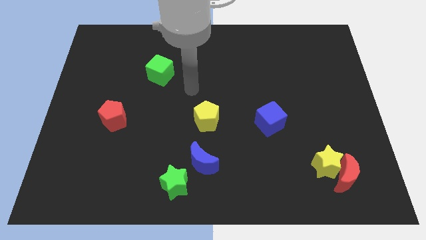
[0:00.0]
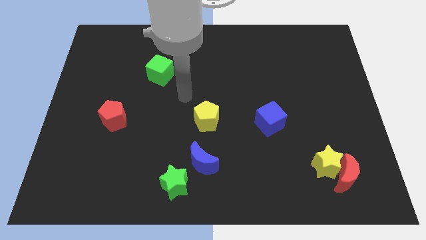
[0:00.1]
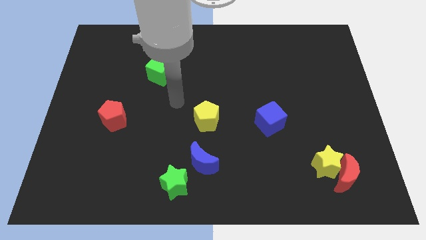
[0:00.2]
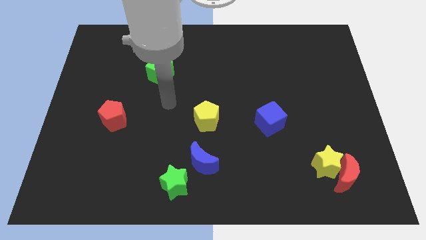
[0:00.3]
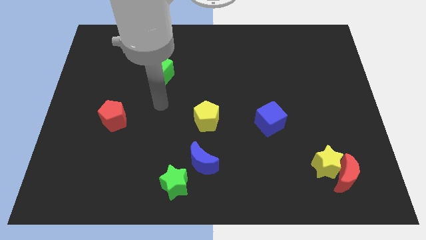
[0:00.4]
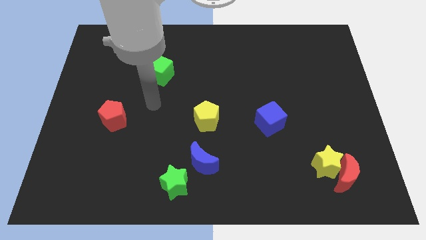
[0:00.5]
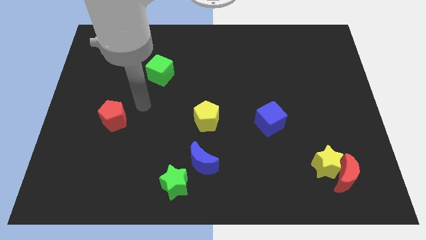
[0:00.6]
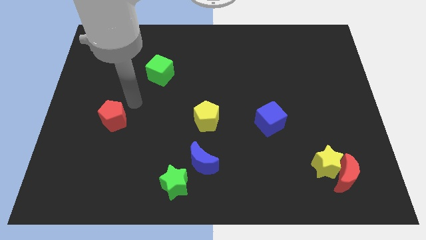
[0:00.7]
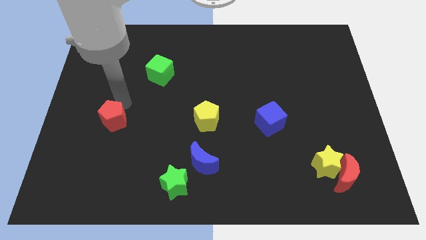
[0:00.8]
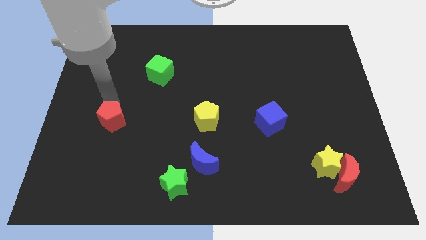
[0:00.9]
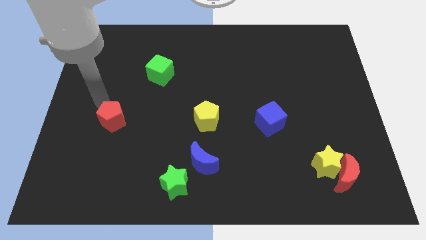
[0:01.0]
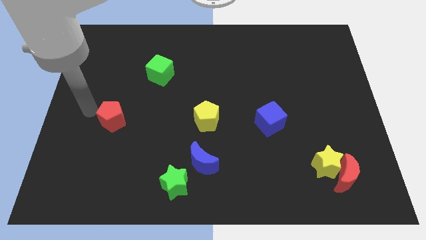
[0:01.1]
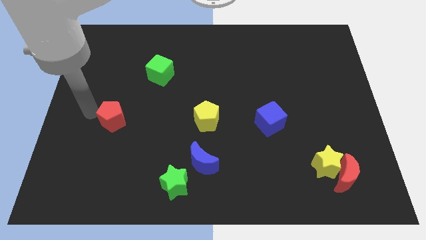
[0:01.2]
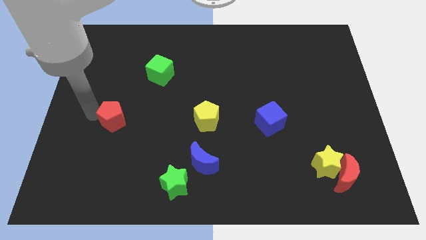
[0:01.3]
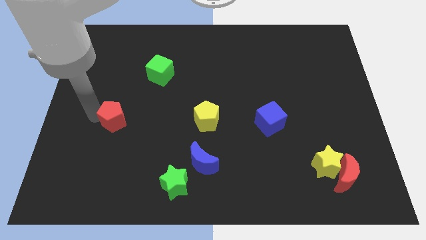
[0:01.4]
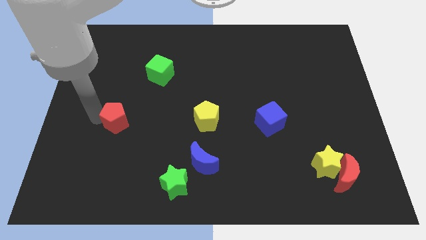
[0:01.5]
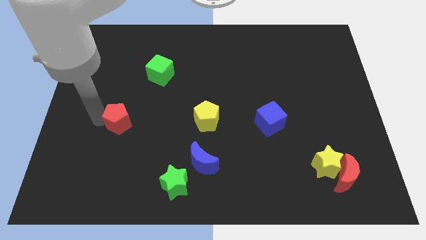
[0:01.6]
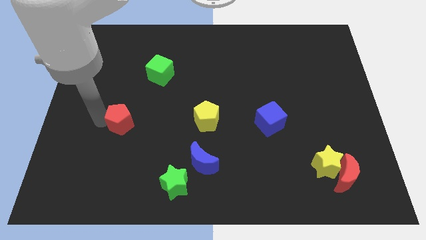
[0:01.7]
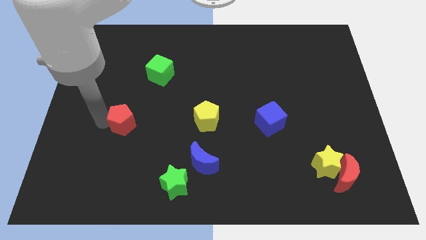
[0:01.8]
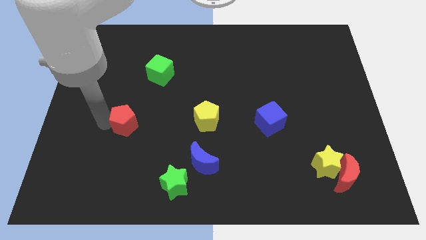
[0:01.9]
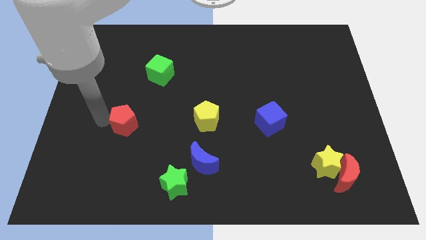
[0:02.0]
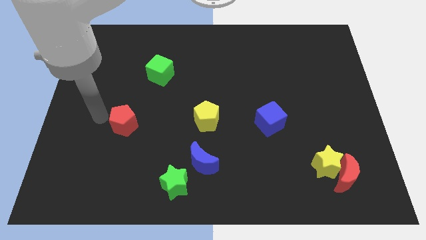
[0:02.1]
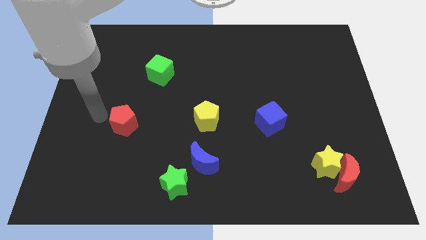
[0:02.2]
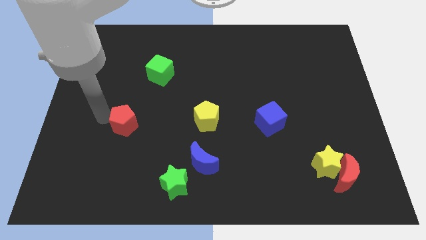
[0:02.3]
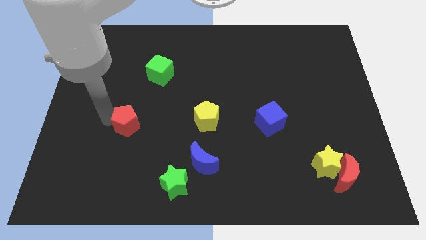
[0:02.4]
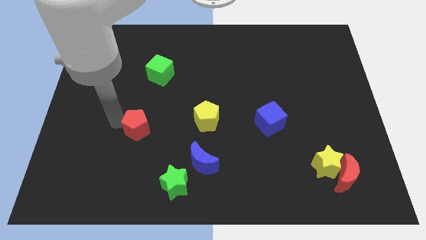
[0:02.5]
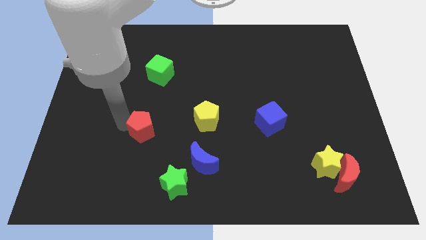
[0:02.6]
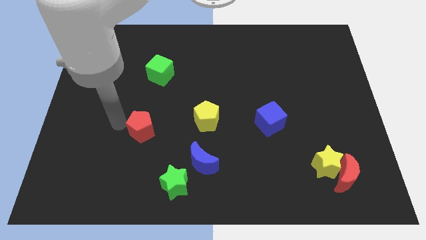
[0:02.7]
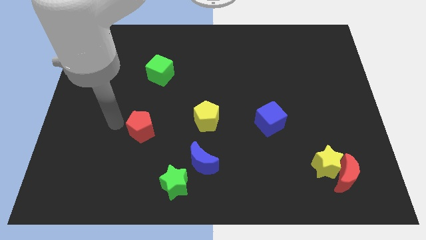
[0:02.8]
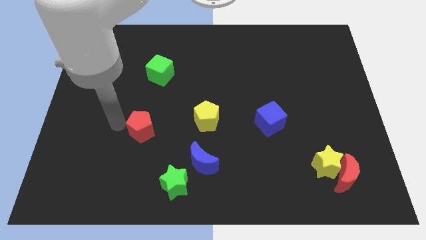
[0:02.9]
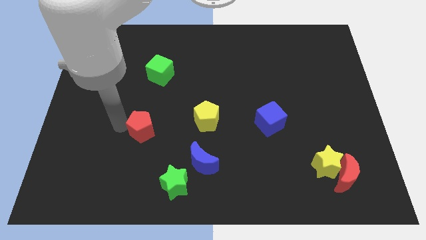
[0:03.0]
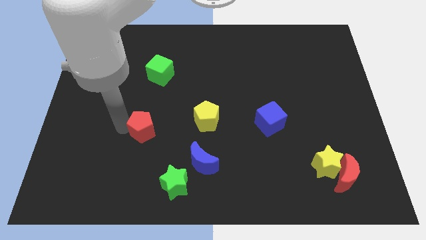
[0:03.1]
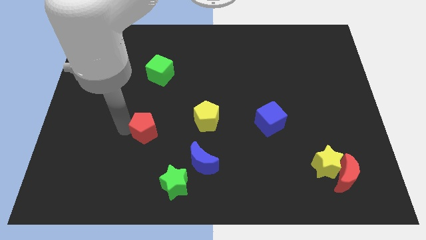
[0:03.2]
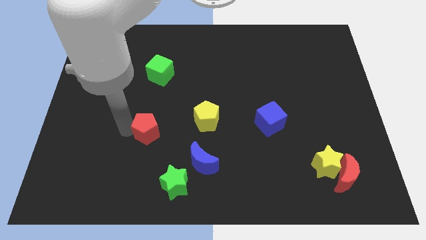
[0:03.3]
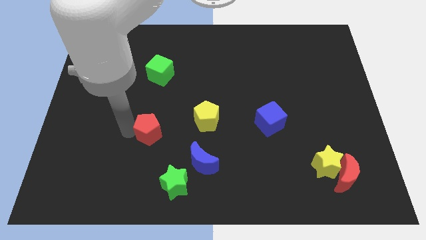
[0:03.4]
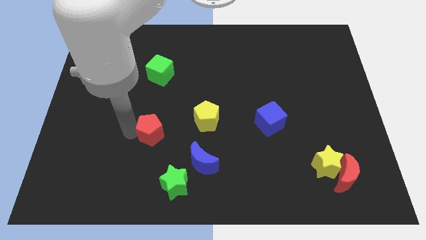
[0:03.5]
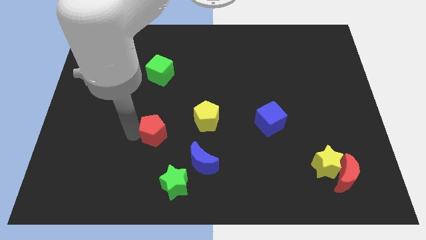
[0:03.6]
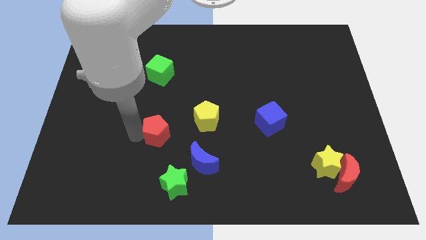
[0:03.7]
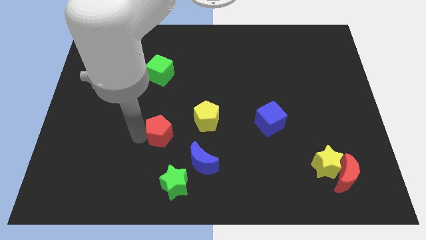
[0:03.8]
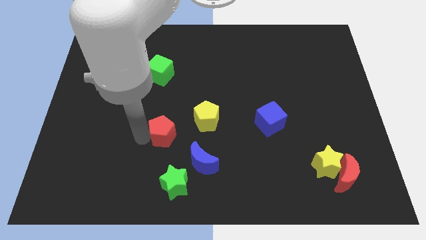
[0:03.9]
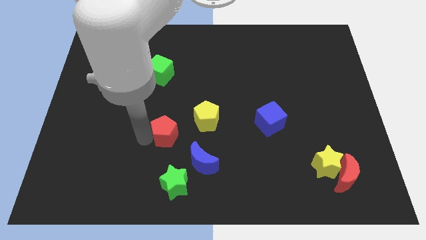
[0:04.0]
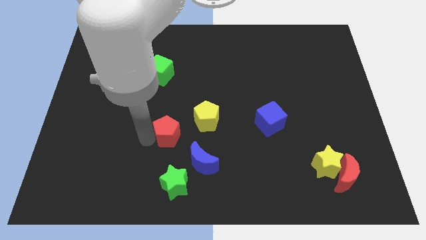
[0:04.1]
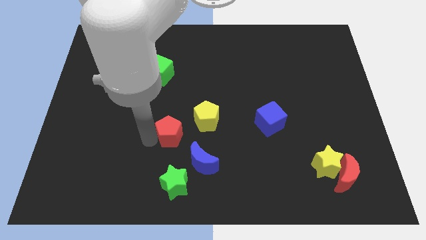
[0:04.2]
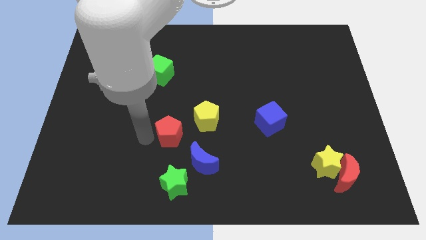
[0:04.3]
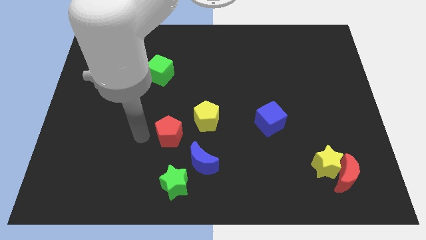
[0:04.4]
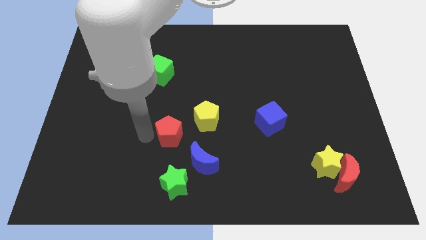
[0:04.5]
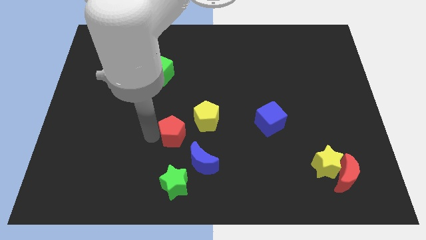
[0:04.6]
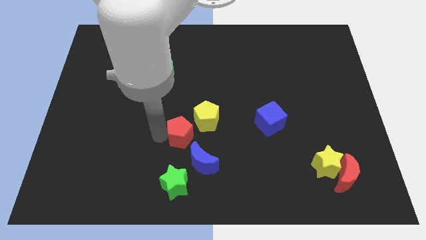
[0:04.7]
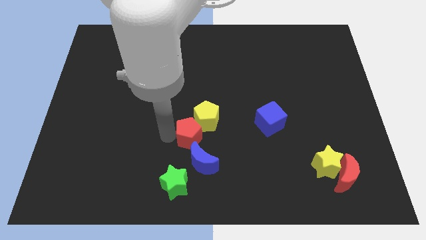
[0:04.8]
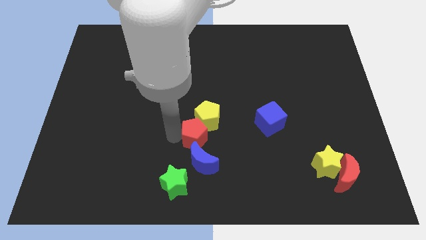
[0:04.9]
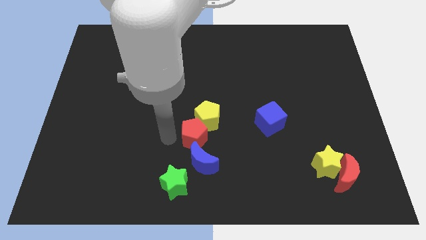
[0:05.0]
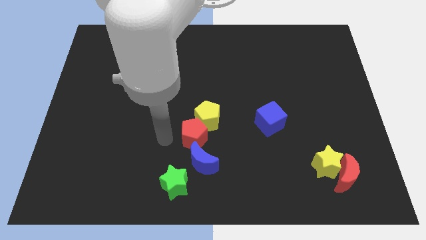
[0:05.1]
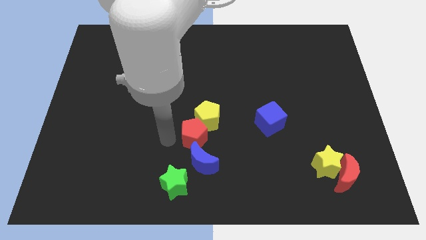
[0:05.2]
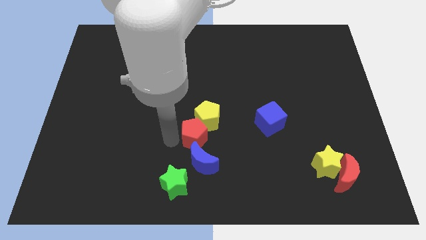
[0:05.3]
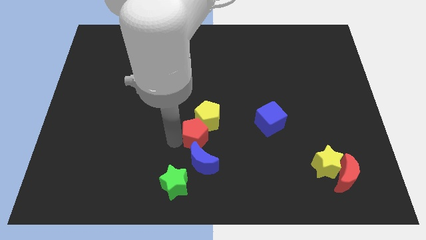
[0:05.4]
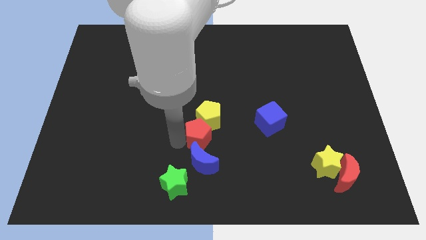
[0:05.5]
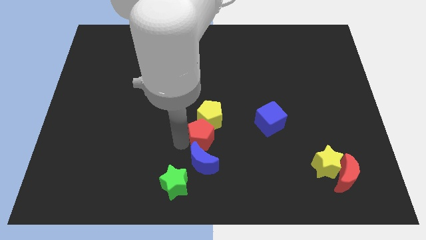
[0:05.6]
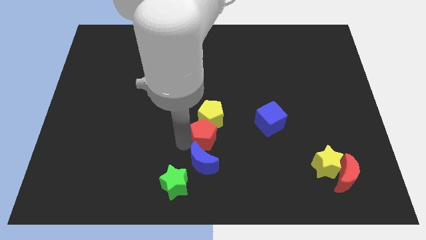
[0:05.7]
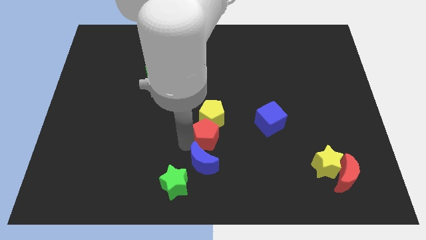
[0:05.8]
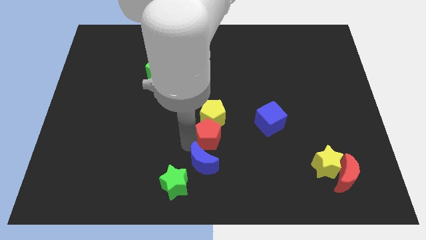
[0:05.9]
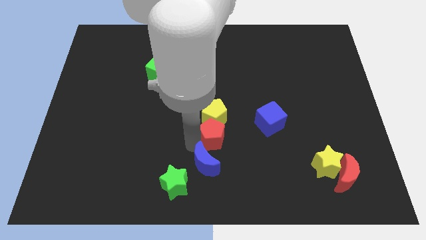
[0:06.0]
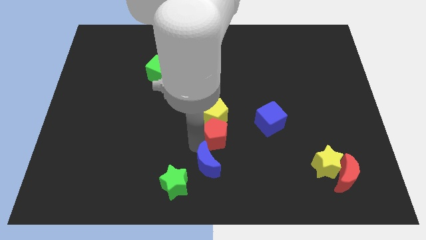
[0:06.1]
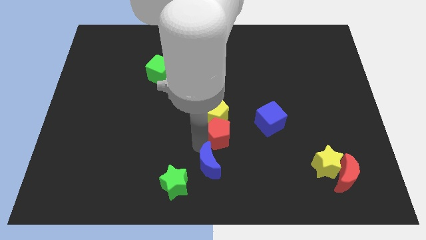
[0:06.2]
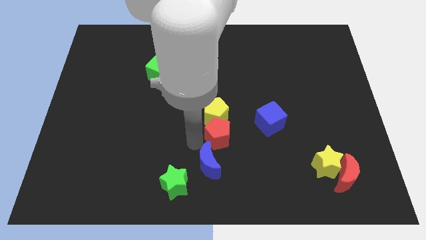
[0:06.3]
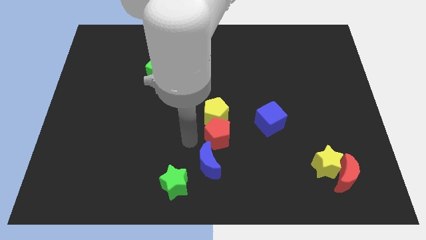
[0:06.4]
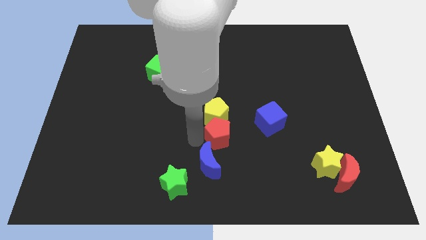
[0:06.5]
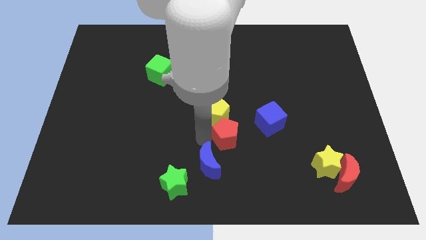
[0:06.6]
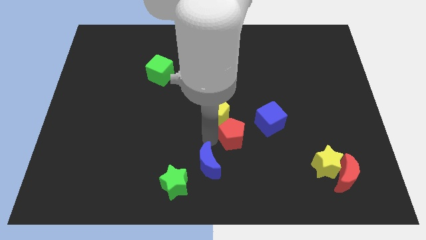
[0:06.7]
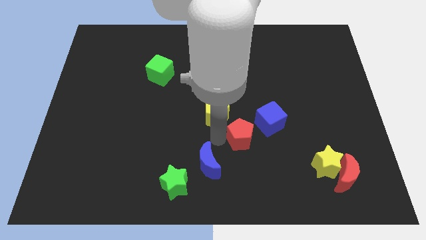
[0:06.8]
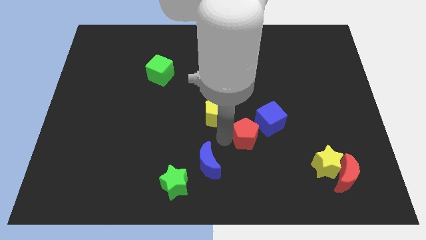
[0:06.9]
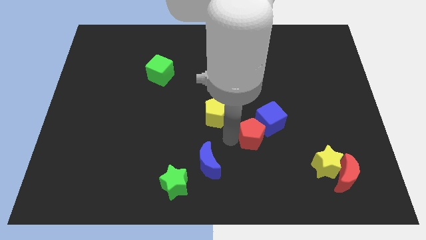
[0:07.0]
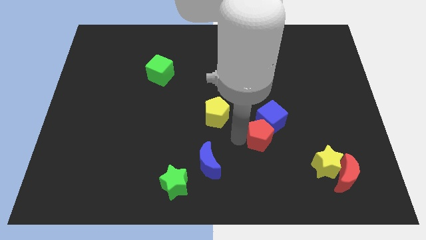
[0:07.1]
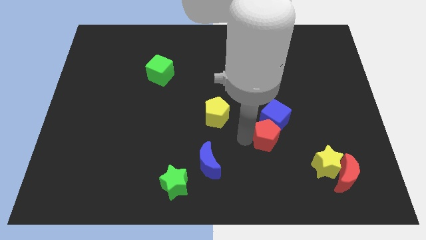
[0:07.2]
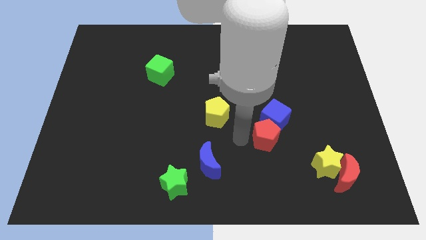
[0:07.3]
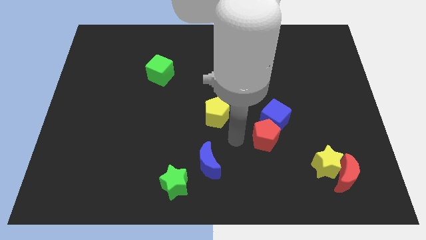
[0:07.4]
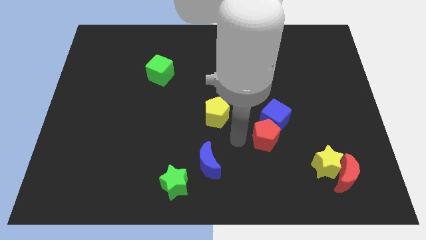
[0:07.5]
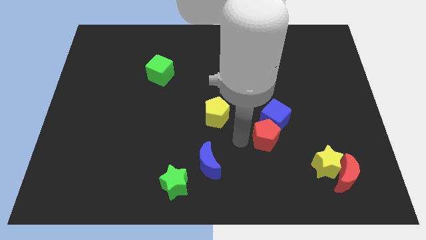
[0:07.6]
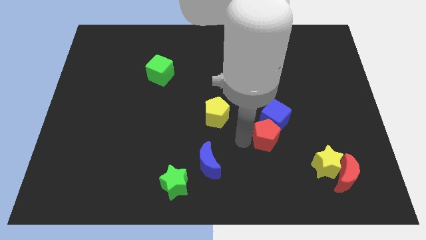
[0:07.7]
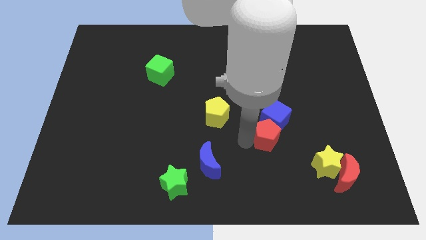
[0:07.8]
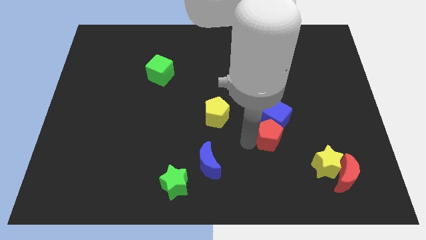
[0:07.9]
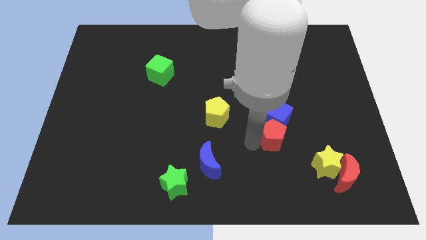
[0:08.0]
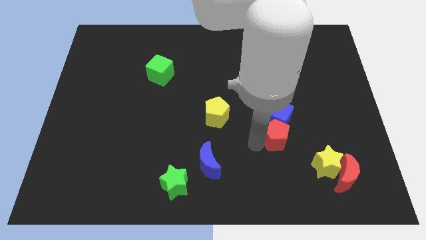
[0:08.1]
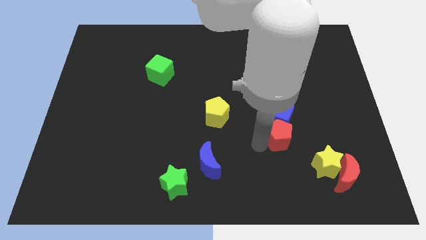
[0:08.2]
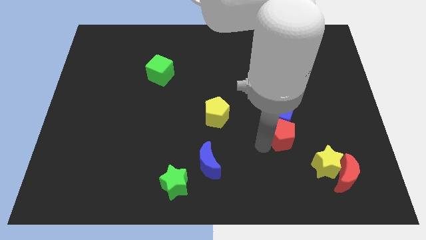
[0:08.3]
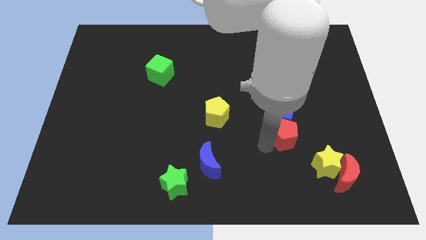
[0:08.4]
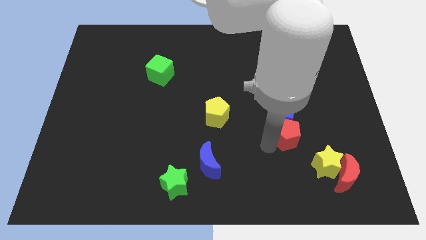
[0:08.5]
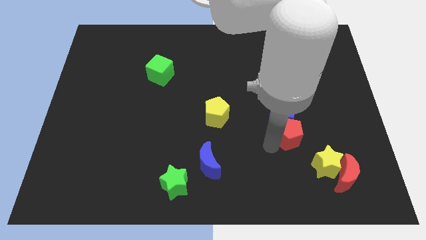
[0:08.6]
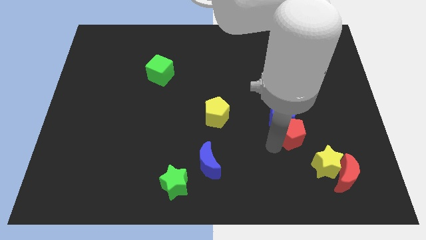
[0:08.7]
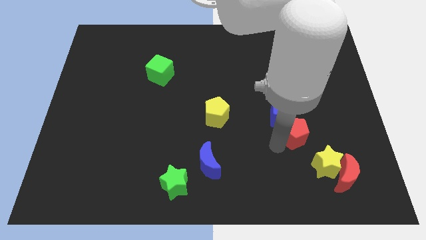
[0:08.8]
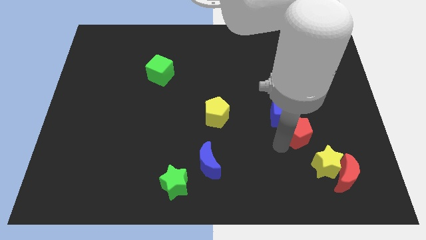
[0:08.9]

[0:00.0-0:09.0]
slide the red pentagon above the yellow star
